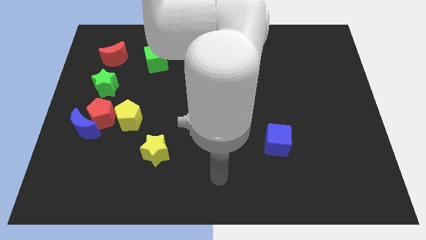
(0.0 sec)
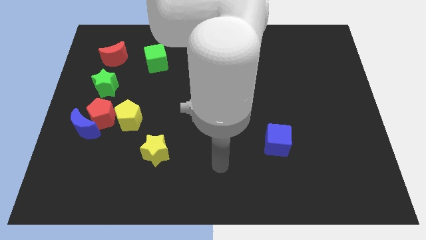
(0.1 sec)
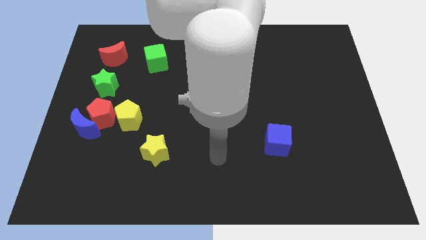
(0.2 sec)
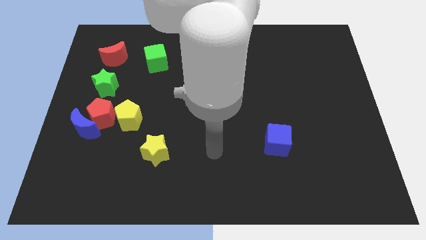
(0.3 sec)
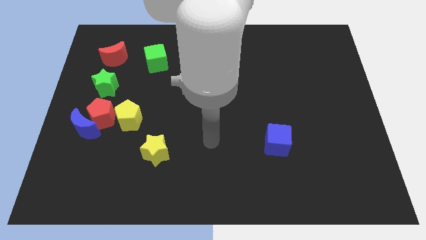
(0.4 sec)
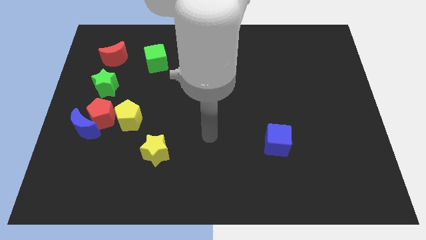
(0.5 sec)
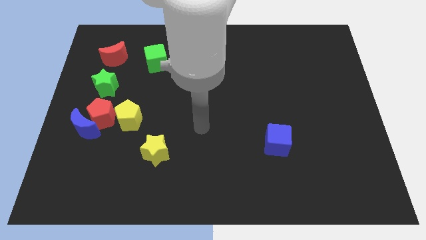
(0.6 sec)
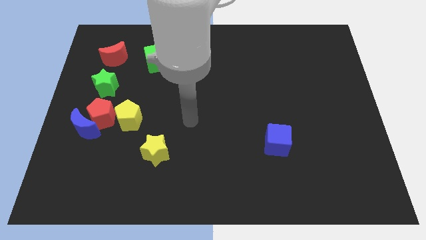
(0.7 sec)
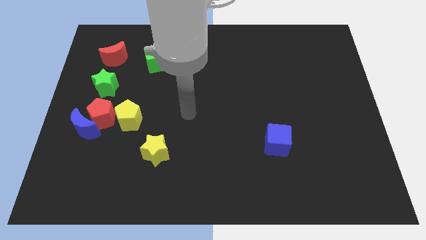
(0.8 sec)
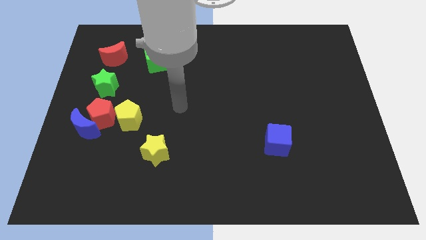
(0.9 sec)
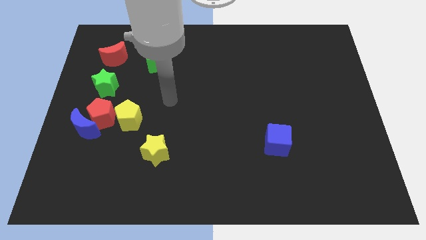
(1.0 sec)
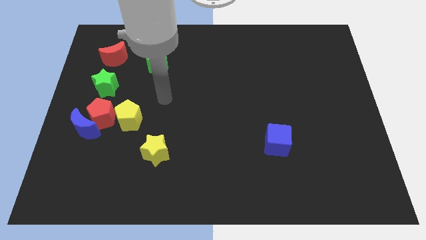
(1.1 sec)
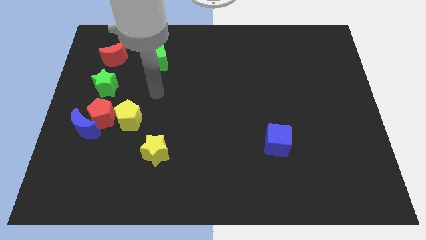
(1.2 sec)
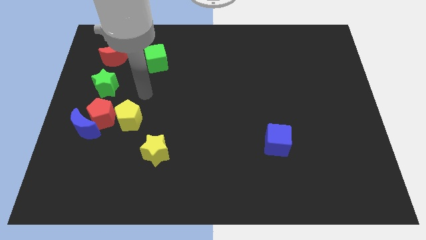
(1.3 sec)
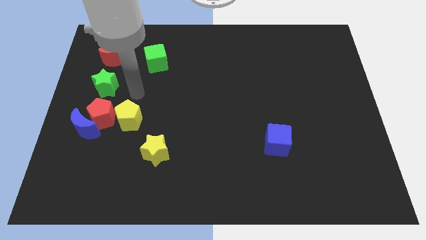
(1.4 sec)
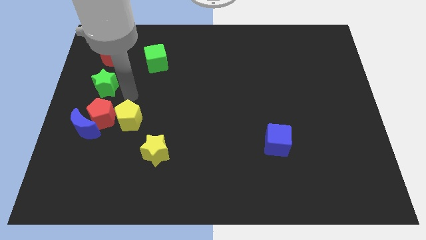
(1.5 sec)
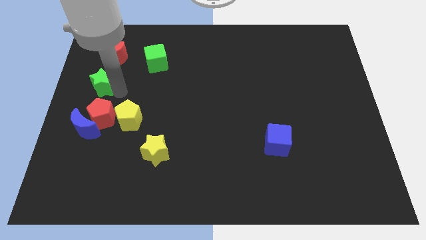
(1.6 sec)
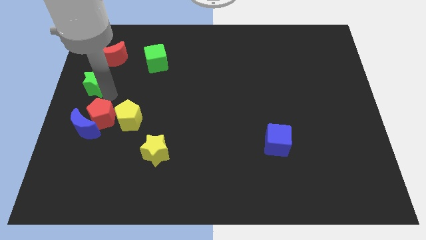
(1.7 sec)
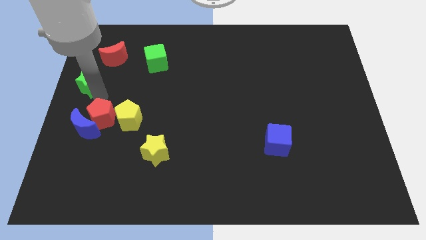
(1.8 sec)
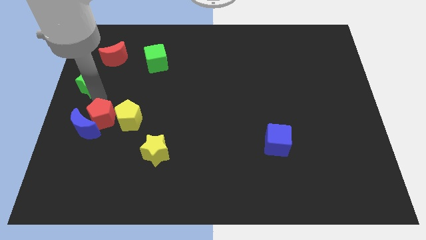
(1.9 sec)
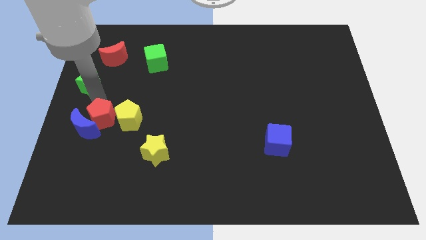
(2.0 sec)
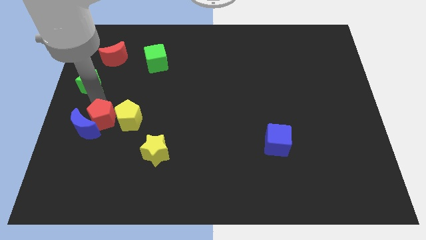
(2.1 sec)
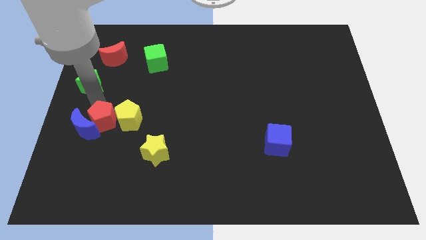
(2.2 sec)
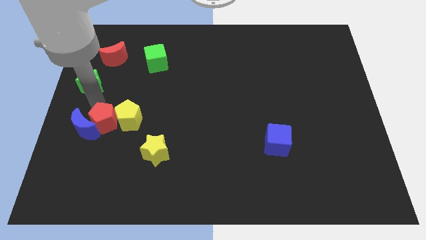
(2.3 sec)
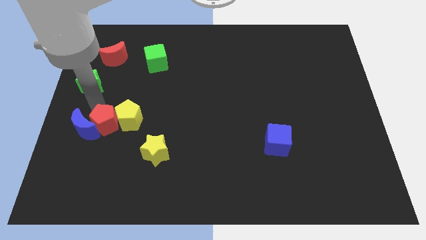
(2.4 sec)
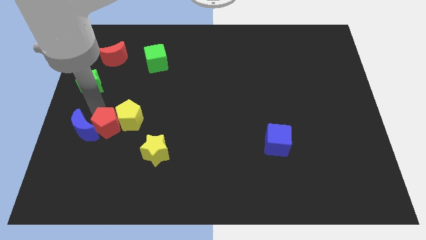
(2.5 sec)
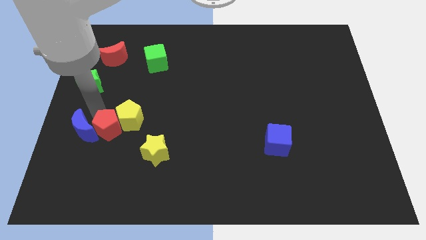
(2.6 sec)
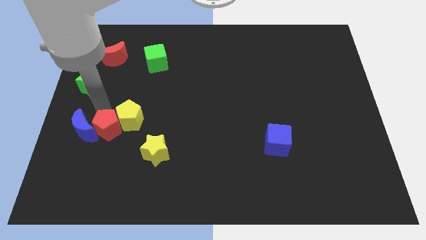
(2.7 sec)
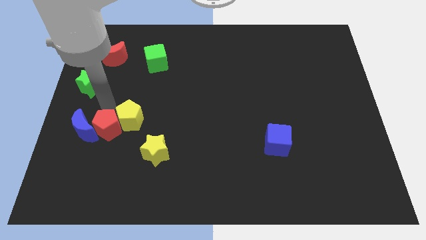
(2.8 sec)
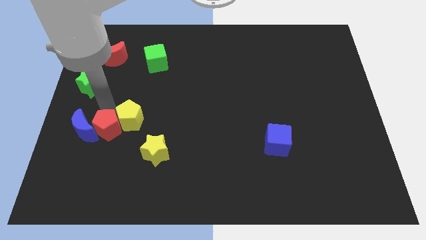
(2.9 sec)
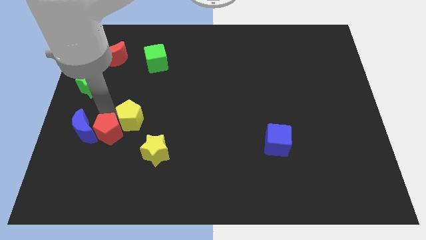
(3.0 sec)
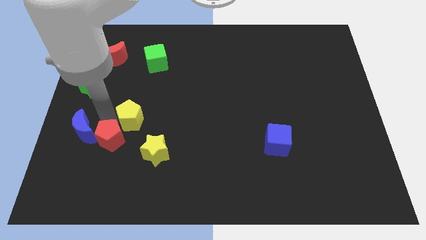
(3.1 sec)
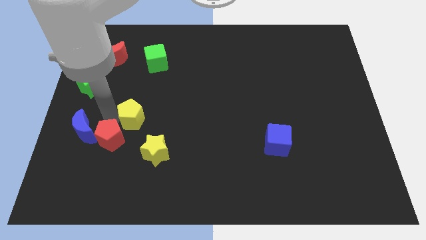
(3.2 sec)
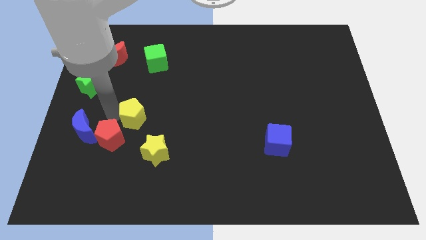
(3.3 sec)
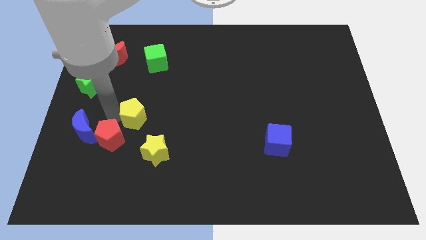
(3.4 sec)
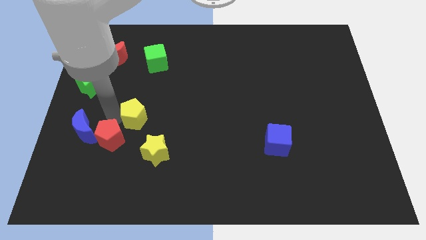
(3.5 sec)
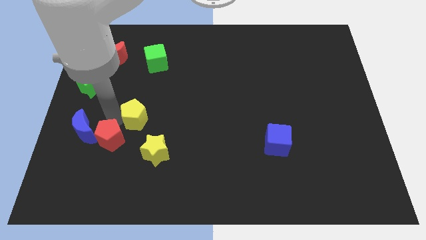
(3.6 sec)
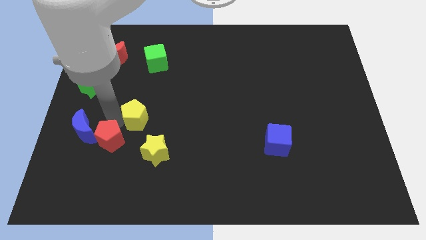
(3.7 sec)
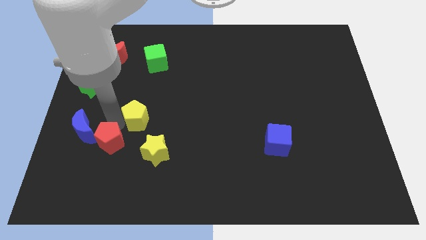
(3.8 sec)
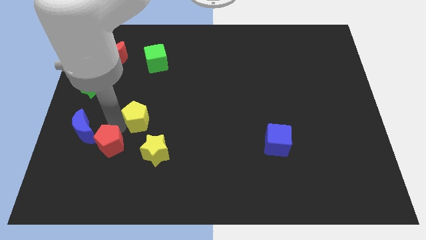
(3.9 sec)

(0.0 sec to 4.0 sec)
slide the red pentagon slightly down and right

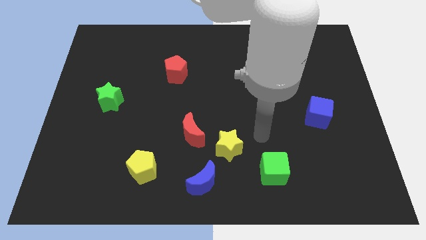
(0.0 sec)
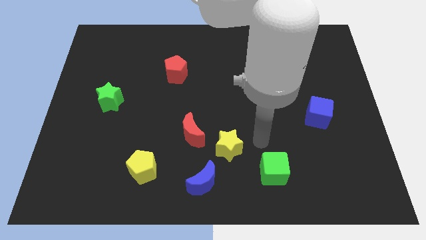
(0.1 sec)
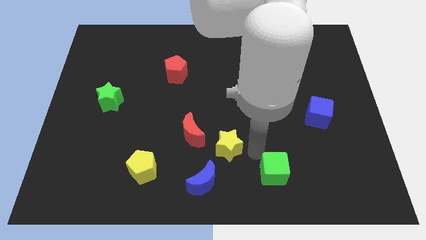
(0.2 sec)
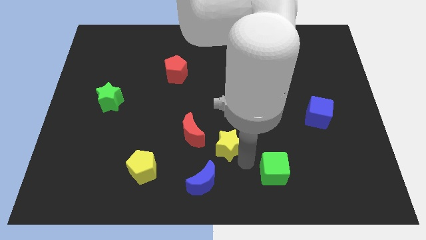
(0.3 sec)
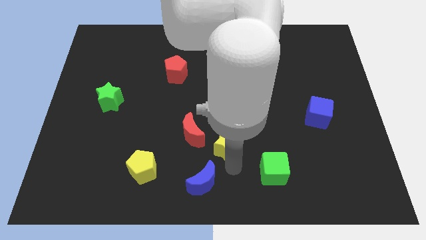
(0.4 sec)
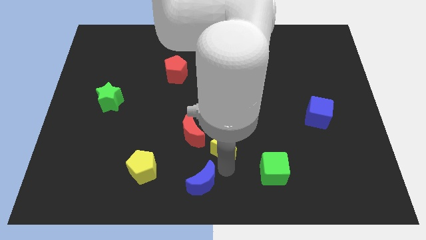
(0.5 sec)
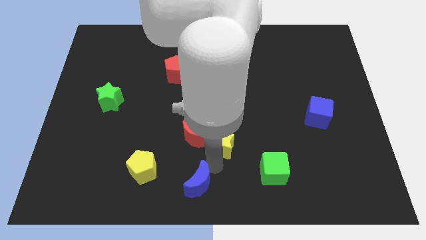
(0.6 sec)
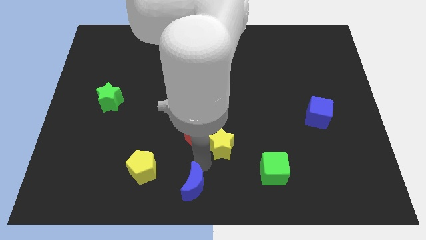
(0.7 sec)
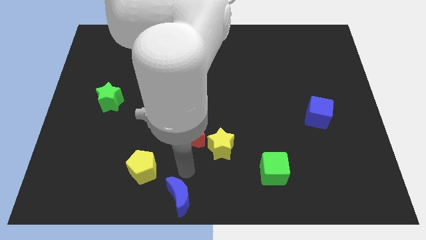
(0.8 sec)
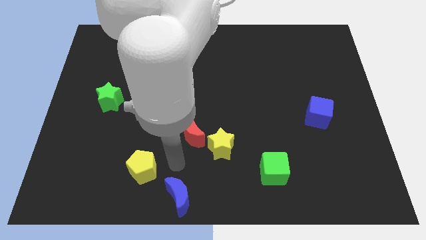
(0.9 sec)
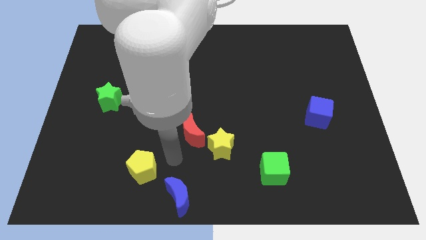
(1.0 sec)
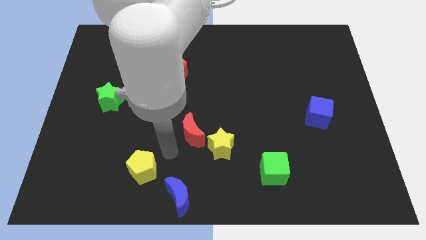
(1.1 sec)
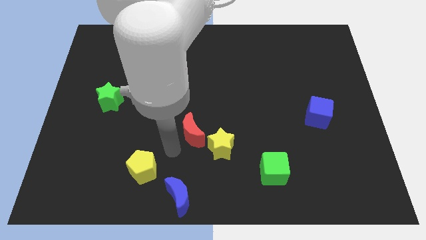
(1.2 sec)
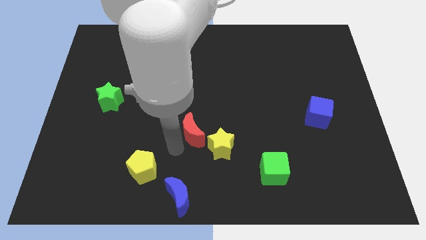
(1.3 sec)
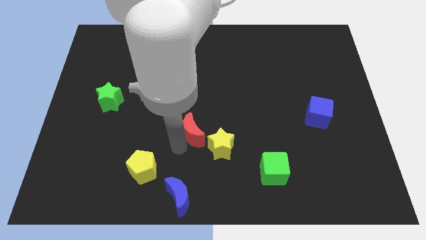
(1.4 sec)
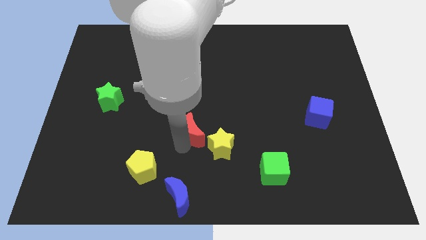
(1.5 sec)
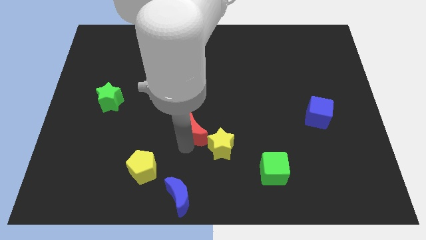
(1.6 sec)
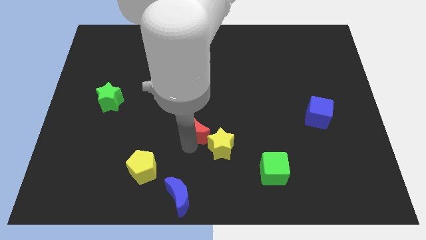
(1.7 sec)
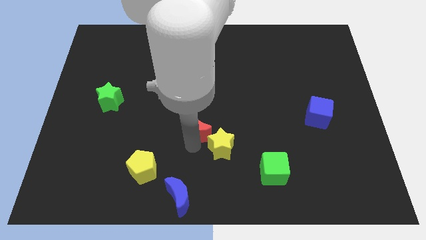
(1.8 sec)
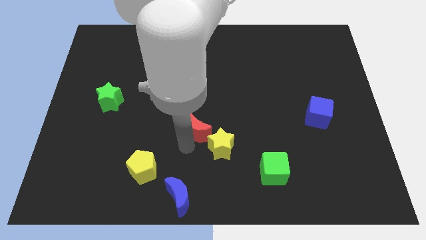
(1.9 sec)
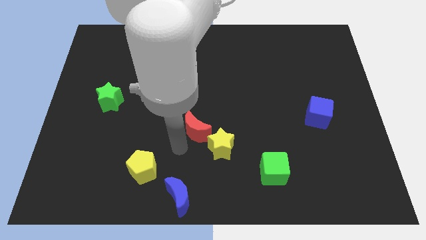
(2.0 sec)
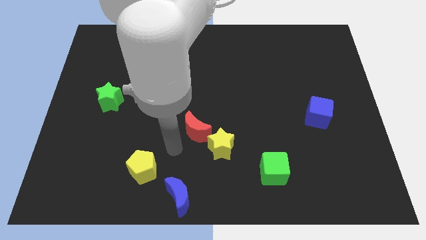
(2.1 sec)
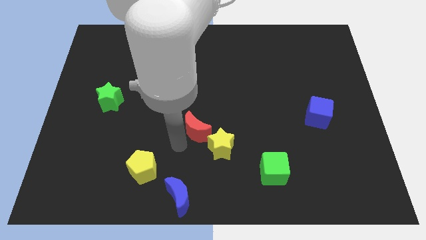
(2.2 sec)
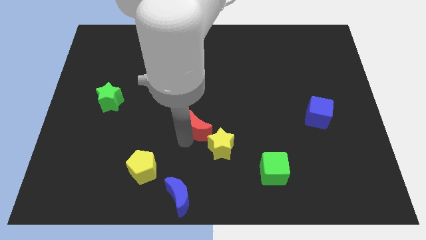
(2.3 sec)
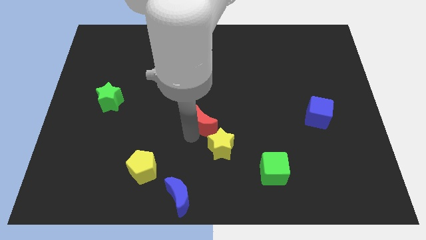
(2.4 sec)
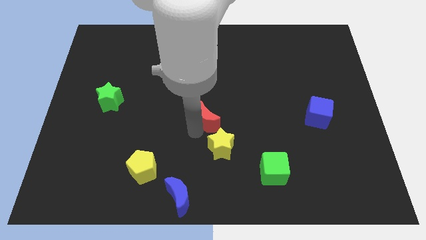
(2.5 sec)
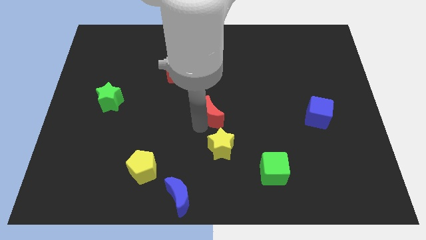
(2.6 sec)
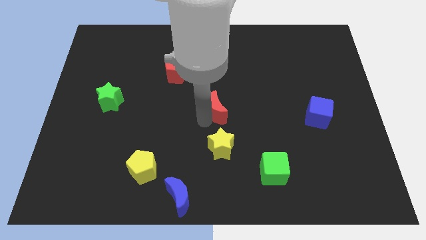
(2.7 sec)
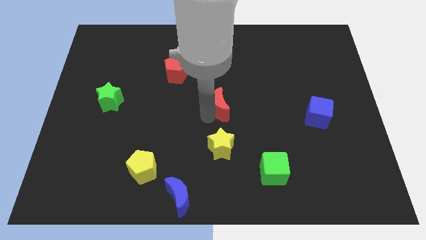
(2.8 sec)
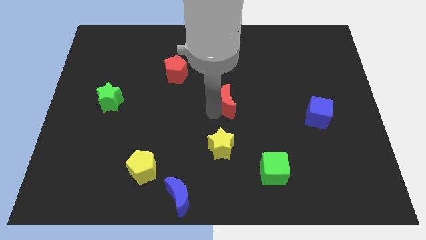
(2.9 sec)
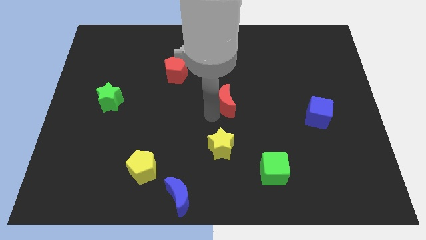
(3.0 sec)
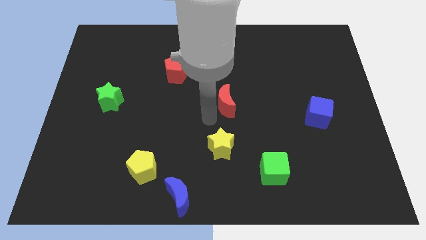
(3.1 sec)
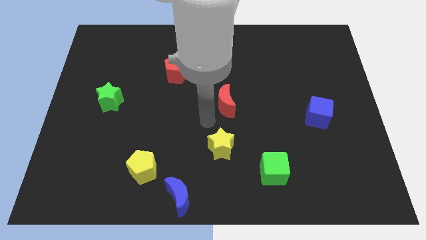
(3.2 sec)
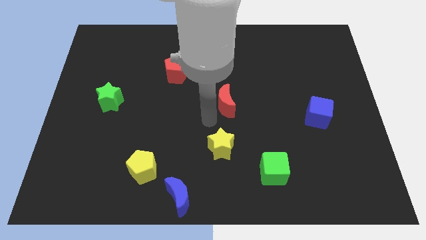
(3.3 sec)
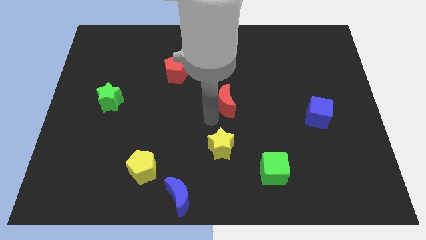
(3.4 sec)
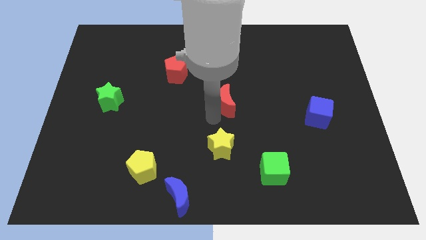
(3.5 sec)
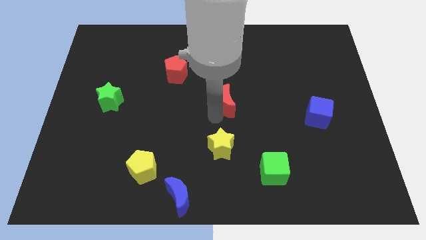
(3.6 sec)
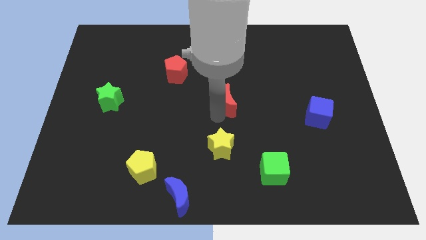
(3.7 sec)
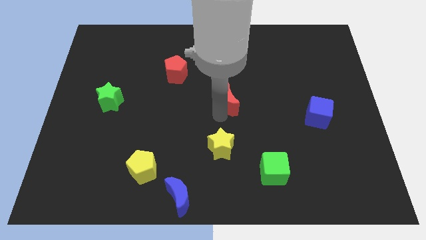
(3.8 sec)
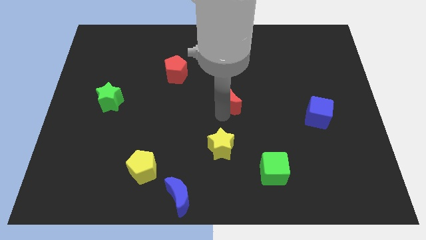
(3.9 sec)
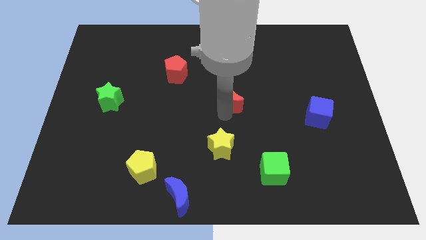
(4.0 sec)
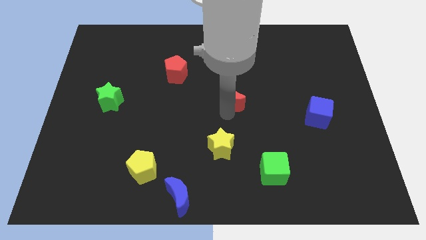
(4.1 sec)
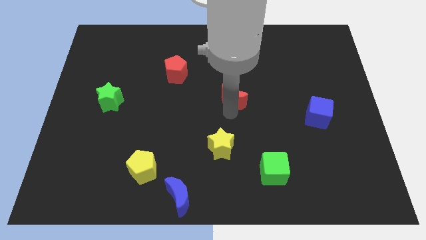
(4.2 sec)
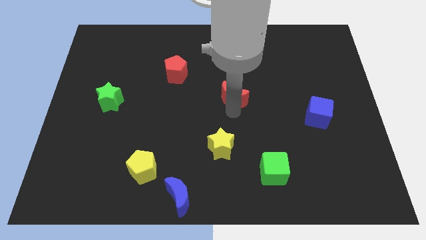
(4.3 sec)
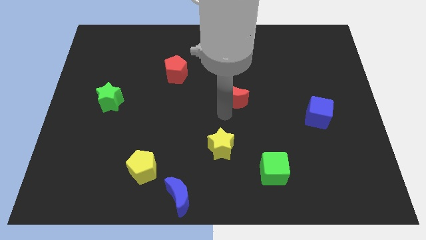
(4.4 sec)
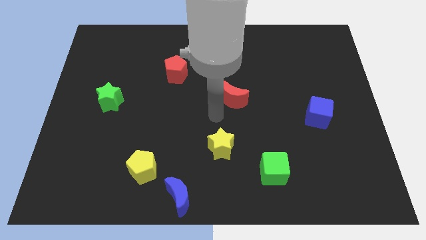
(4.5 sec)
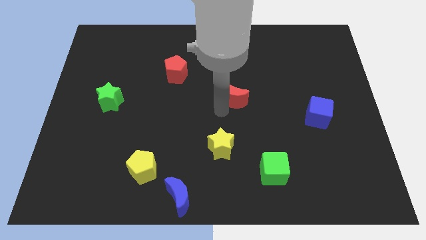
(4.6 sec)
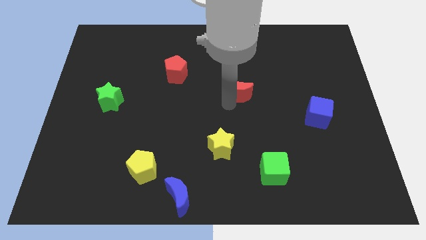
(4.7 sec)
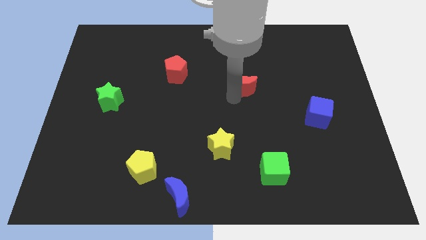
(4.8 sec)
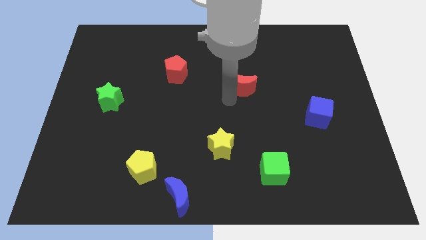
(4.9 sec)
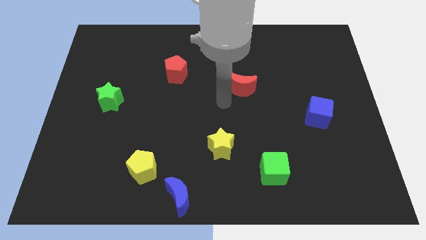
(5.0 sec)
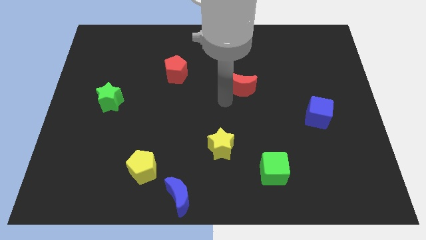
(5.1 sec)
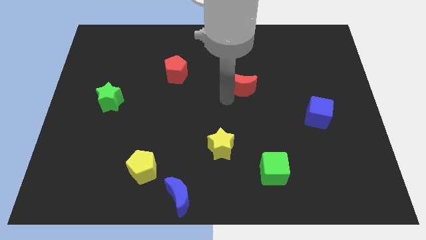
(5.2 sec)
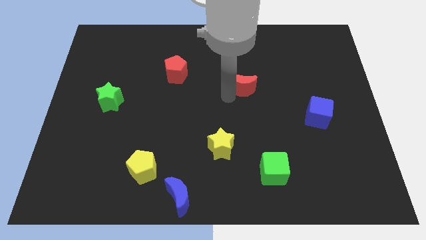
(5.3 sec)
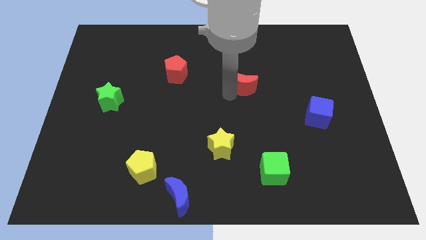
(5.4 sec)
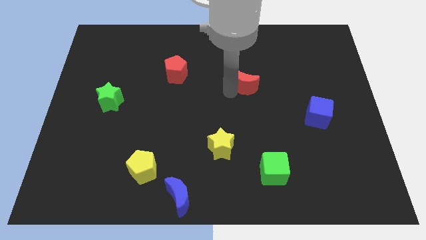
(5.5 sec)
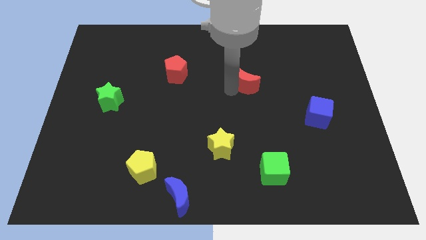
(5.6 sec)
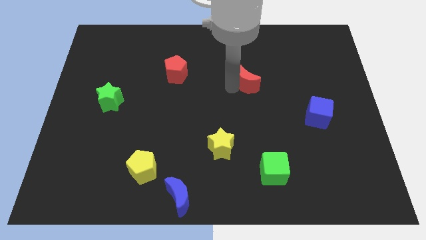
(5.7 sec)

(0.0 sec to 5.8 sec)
move the red moon upwards and to the right diagonally
